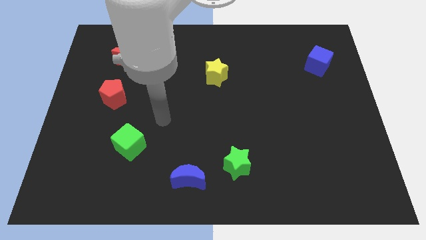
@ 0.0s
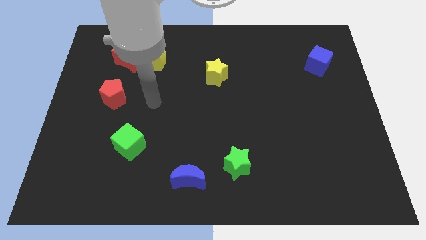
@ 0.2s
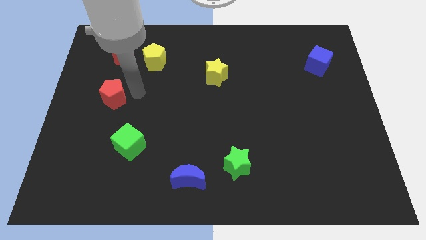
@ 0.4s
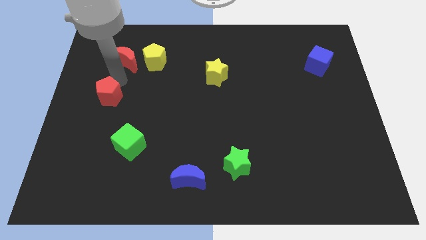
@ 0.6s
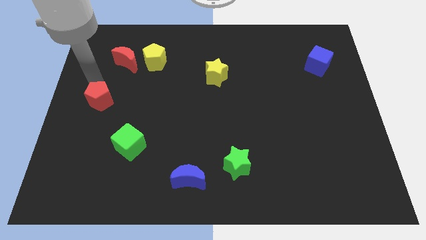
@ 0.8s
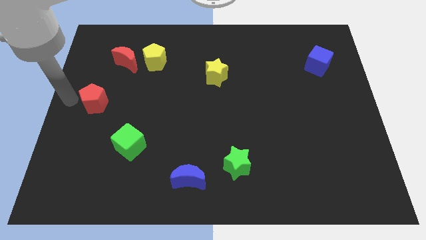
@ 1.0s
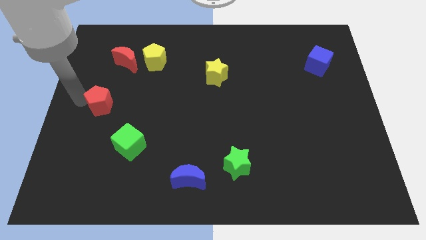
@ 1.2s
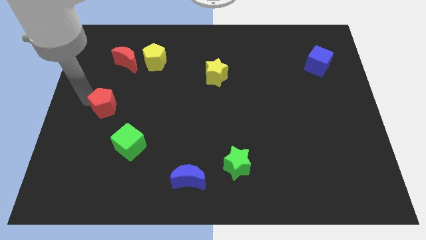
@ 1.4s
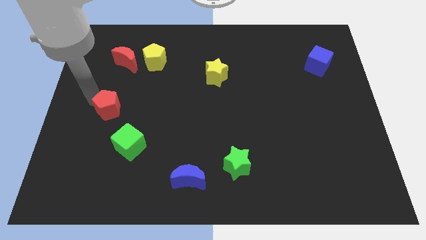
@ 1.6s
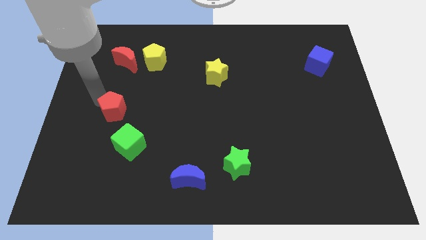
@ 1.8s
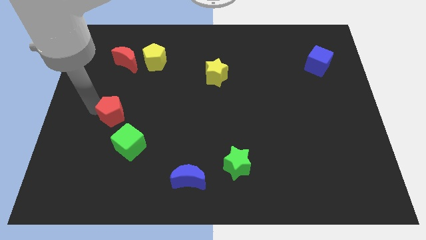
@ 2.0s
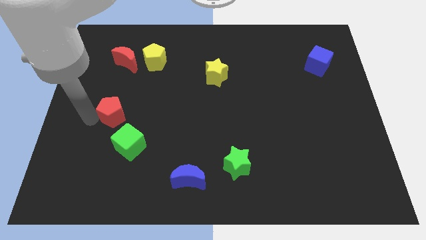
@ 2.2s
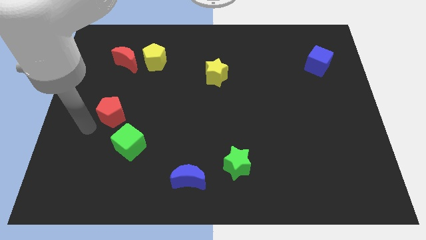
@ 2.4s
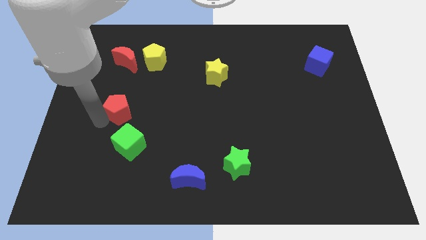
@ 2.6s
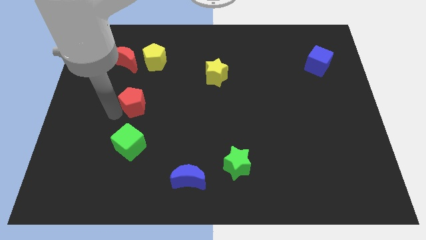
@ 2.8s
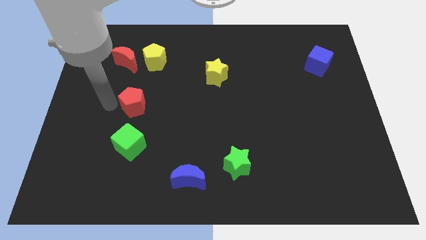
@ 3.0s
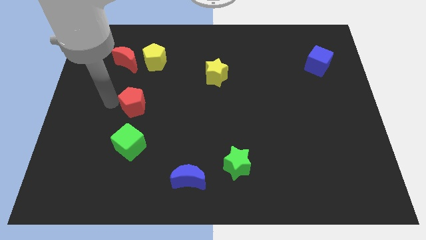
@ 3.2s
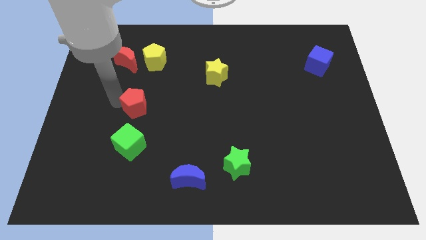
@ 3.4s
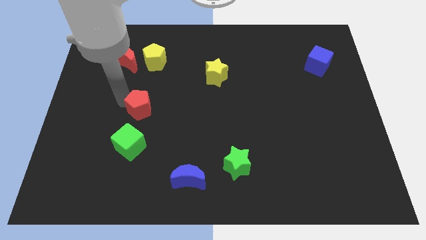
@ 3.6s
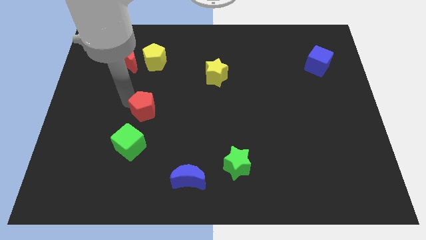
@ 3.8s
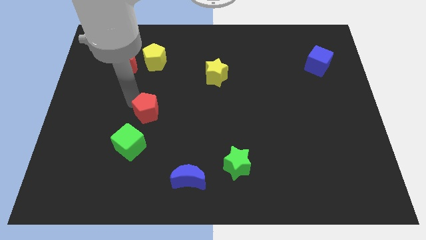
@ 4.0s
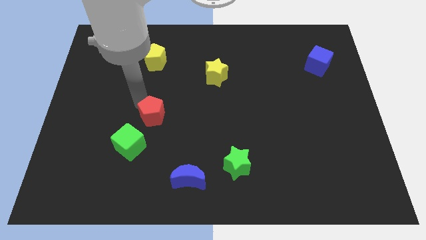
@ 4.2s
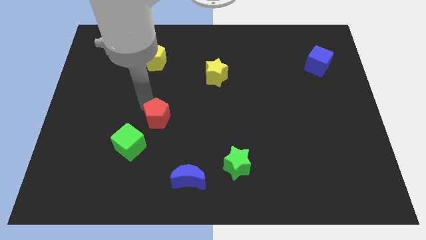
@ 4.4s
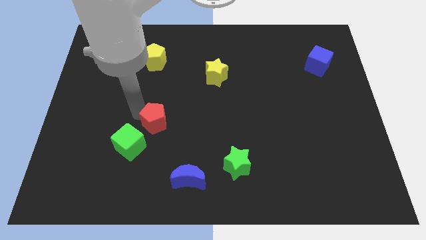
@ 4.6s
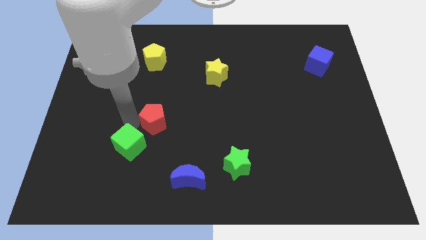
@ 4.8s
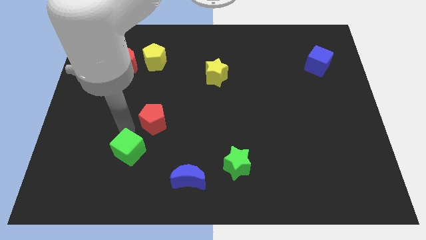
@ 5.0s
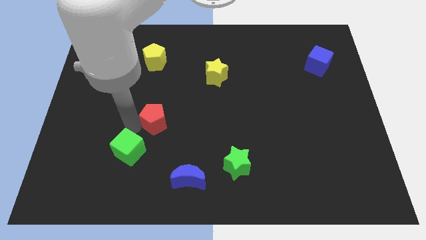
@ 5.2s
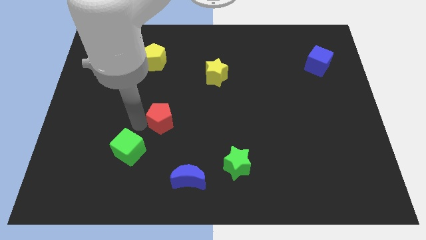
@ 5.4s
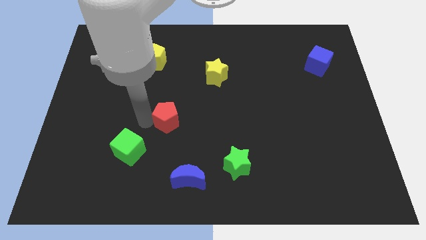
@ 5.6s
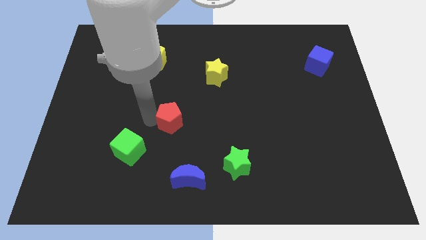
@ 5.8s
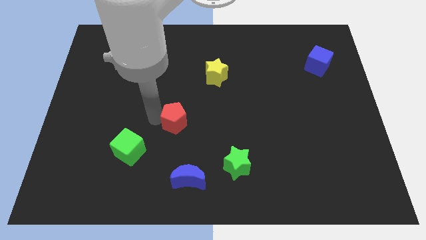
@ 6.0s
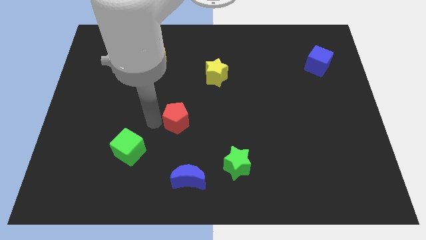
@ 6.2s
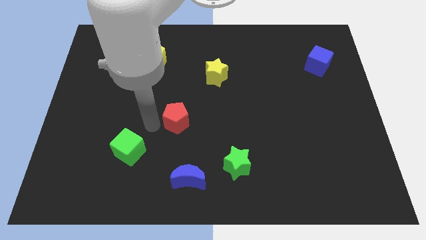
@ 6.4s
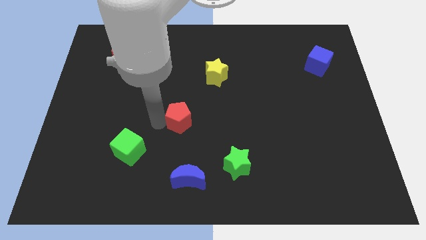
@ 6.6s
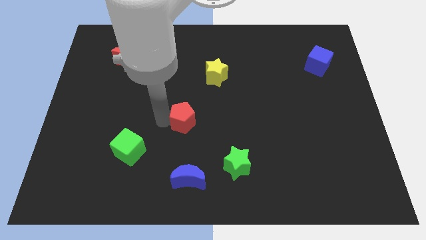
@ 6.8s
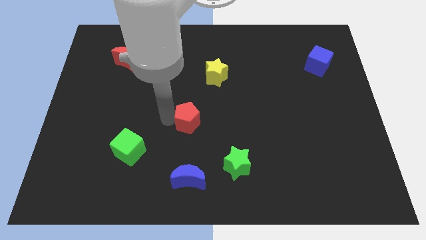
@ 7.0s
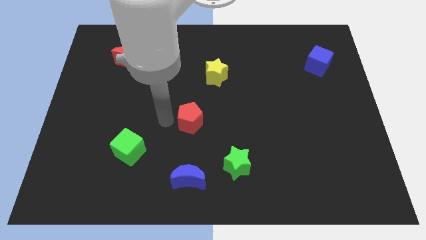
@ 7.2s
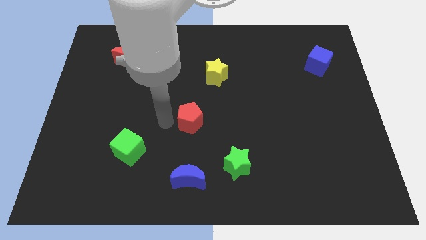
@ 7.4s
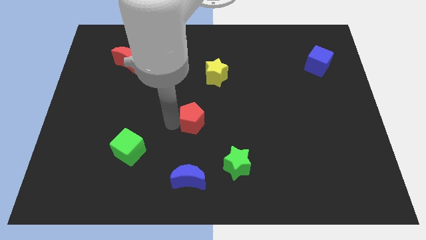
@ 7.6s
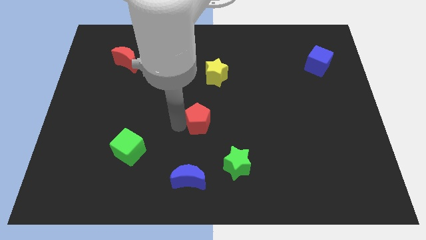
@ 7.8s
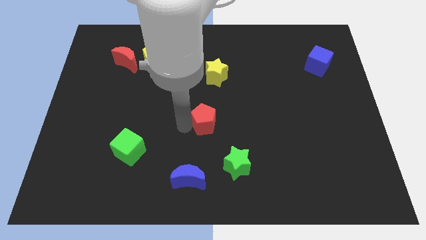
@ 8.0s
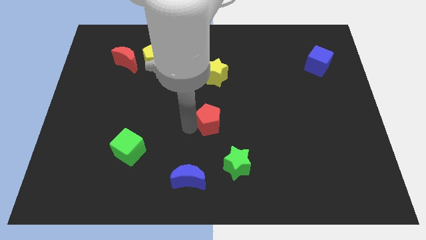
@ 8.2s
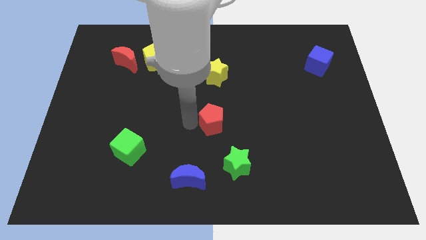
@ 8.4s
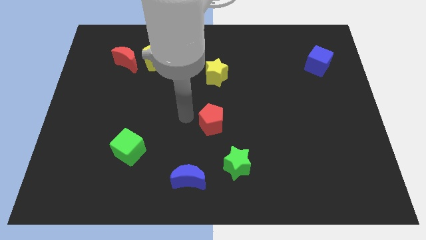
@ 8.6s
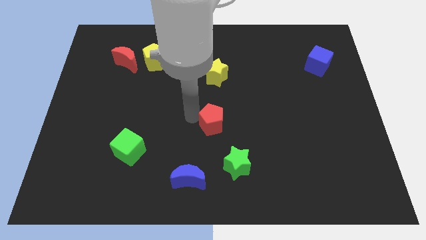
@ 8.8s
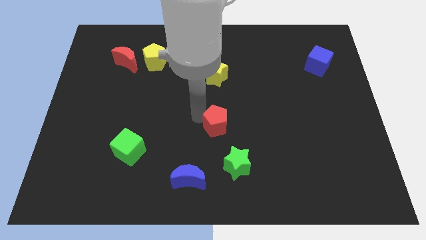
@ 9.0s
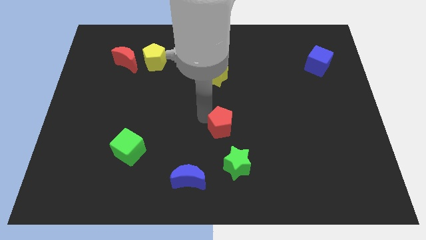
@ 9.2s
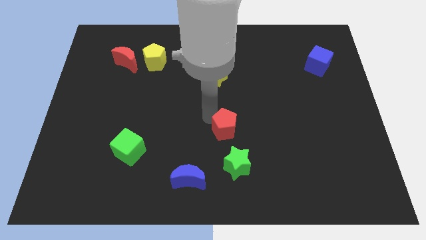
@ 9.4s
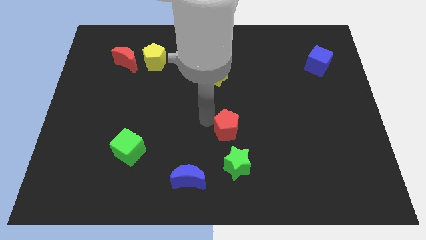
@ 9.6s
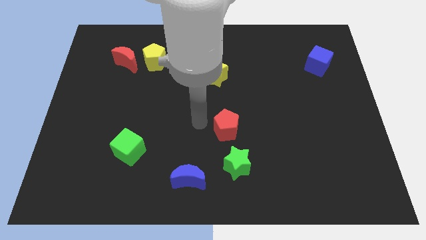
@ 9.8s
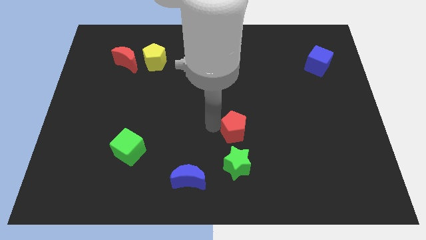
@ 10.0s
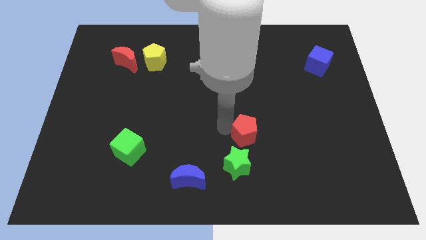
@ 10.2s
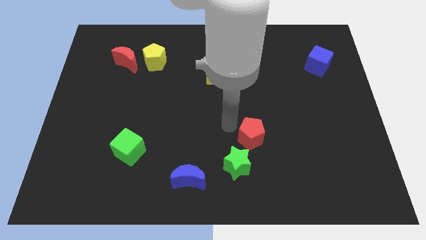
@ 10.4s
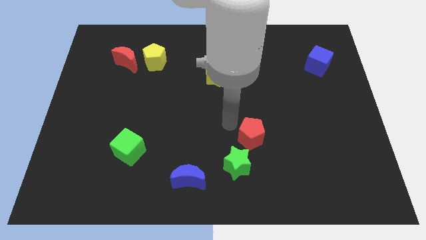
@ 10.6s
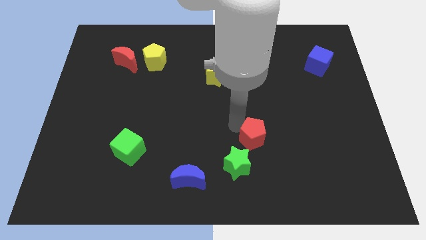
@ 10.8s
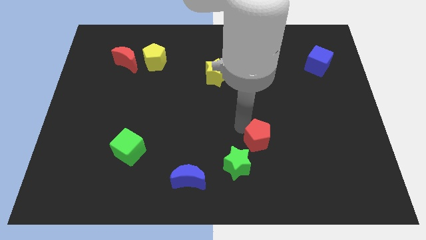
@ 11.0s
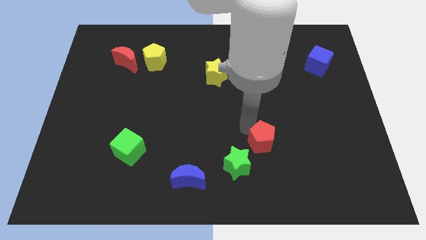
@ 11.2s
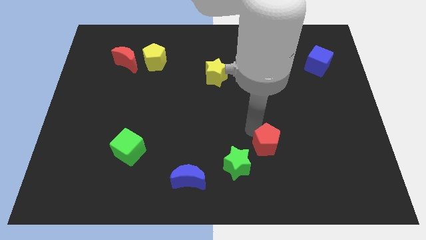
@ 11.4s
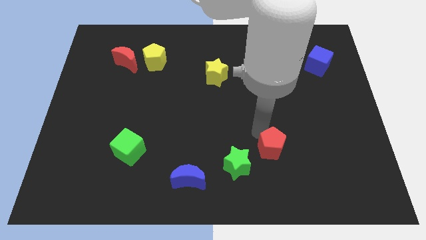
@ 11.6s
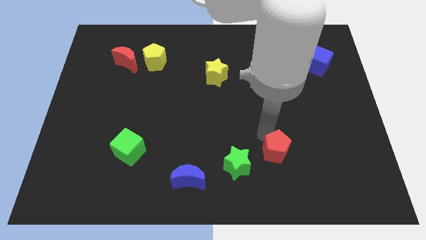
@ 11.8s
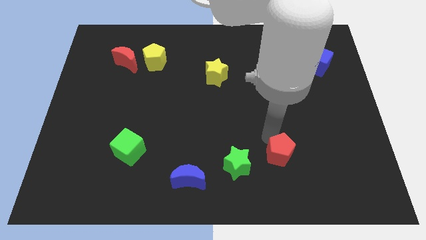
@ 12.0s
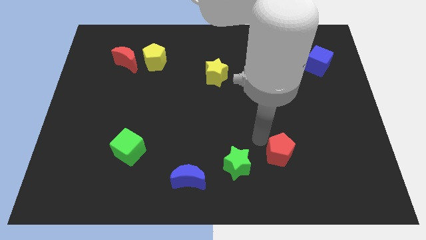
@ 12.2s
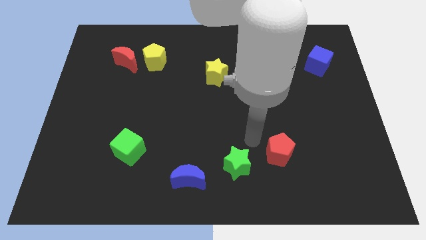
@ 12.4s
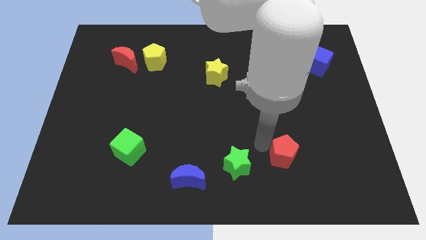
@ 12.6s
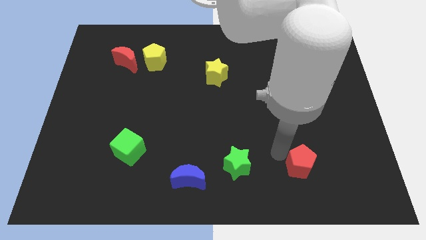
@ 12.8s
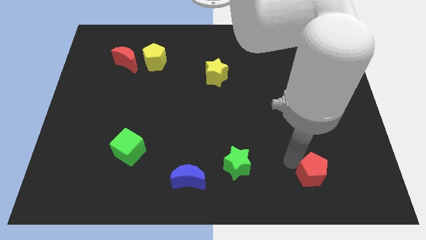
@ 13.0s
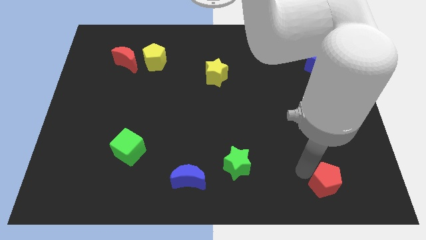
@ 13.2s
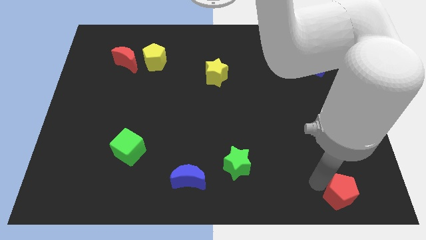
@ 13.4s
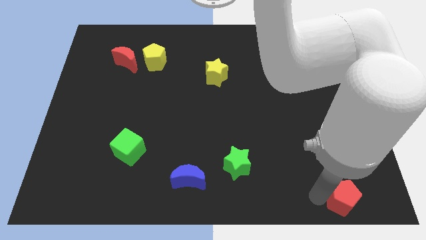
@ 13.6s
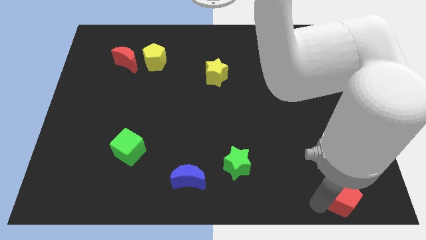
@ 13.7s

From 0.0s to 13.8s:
push the red pentagon to the bottom right of the board
